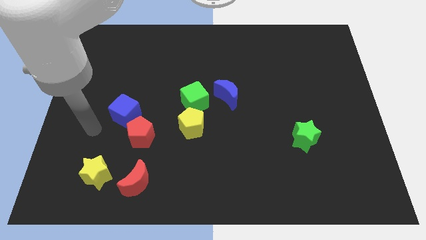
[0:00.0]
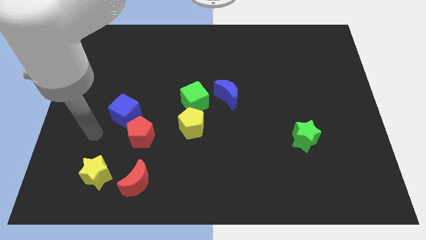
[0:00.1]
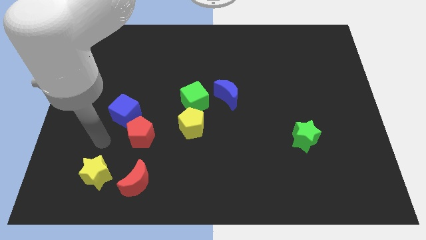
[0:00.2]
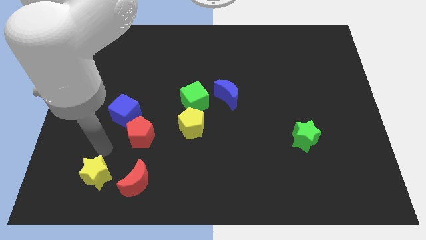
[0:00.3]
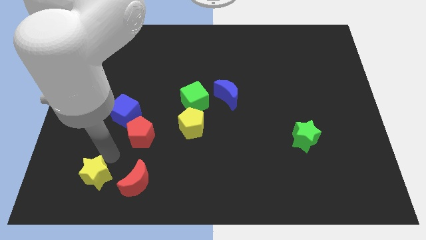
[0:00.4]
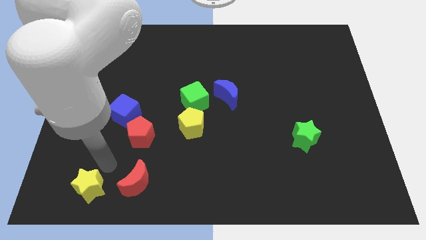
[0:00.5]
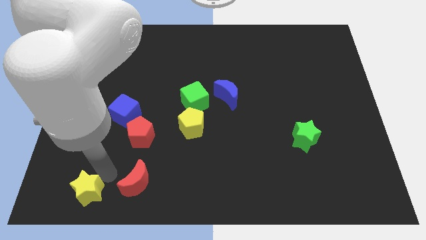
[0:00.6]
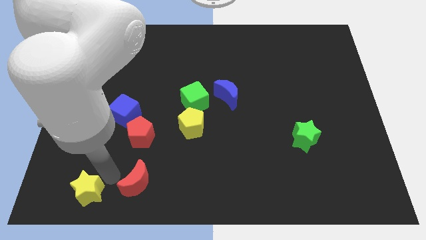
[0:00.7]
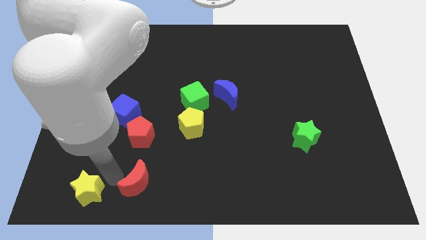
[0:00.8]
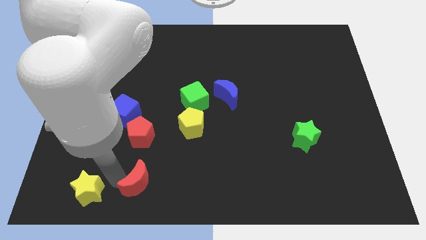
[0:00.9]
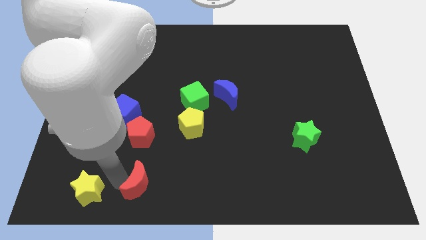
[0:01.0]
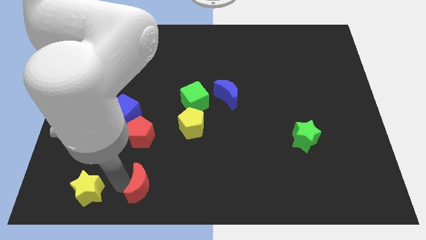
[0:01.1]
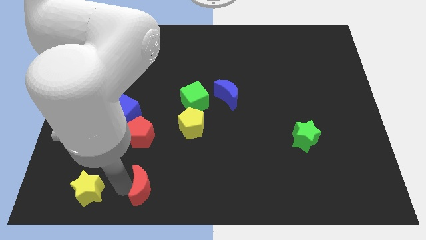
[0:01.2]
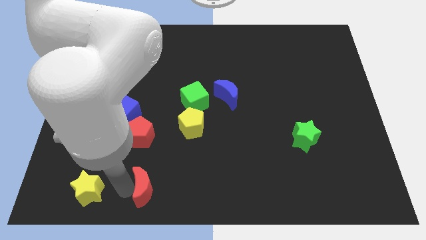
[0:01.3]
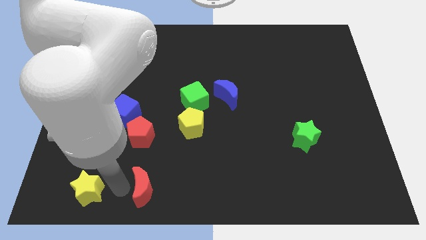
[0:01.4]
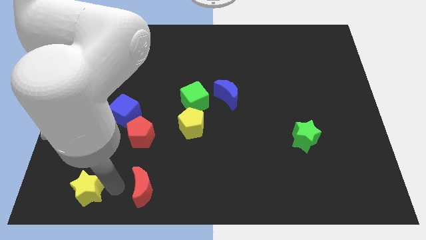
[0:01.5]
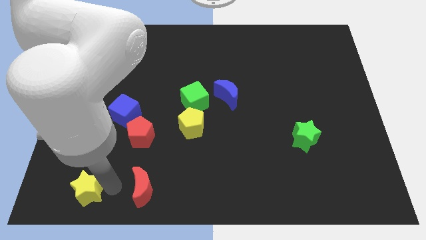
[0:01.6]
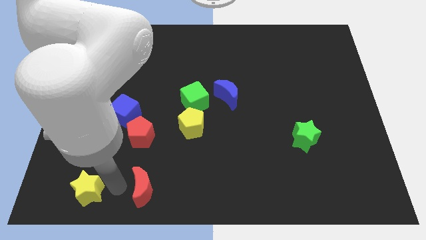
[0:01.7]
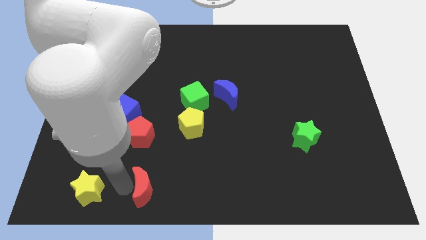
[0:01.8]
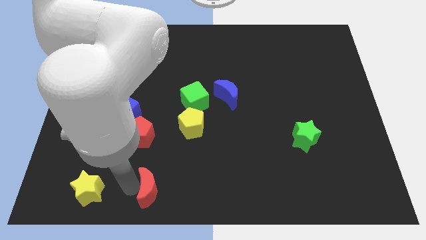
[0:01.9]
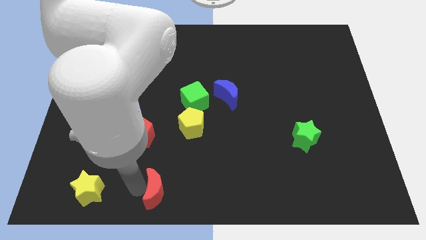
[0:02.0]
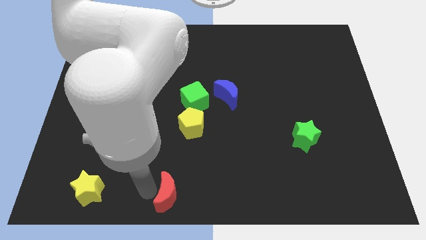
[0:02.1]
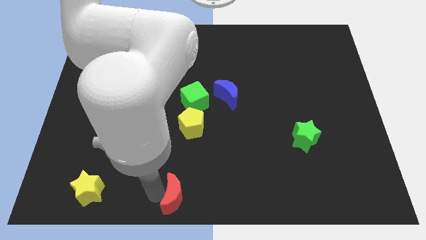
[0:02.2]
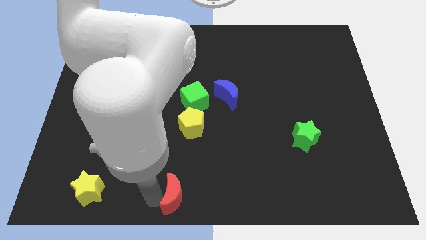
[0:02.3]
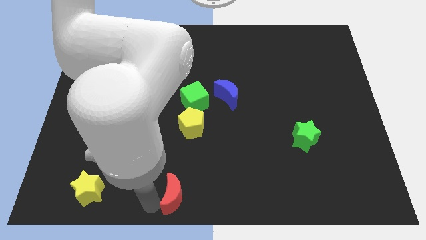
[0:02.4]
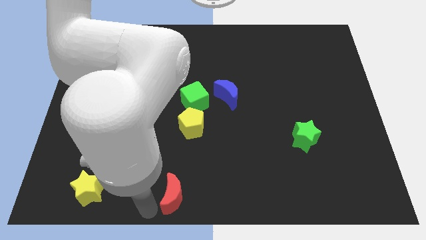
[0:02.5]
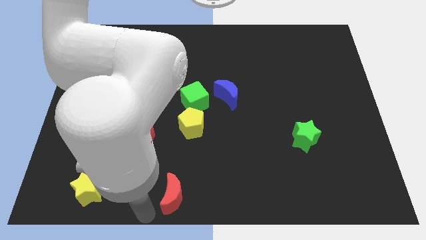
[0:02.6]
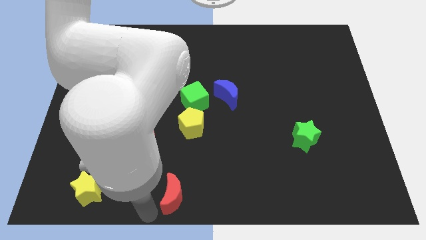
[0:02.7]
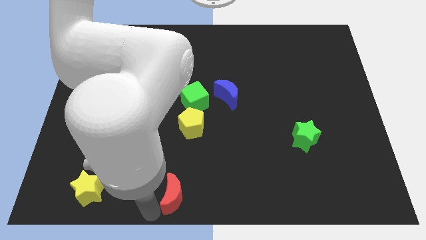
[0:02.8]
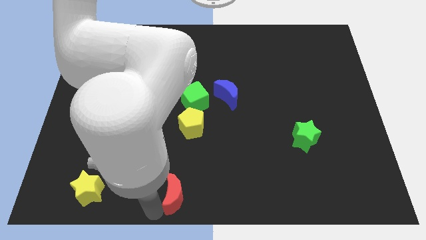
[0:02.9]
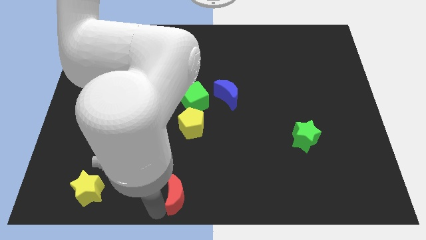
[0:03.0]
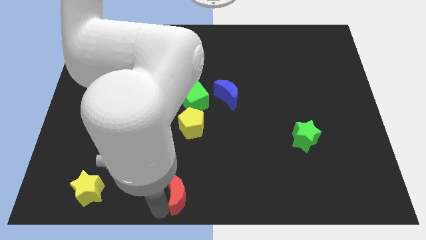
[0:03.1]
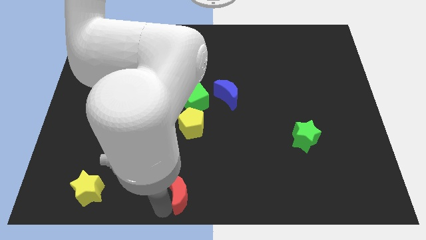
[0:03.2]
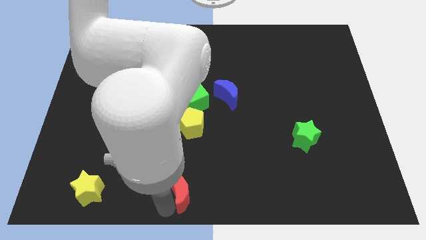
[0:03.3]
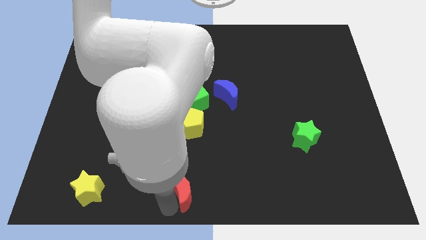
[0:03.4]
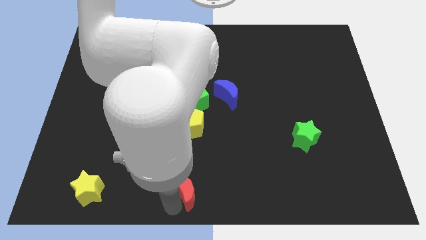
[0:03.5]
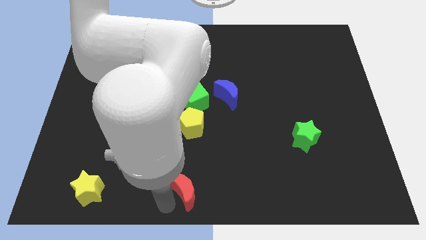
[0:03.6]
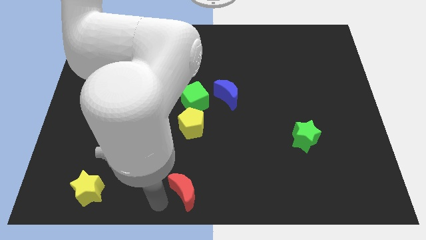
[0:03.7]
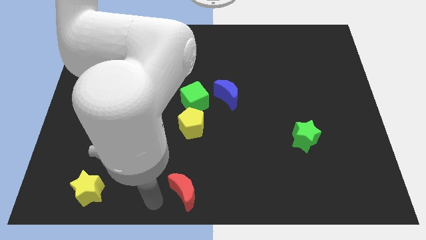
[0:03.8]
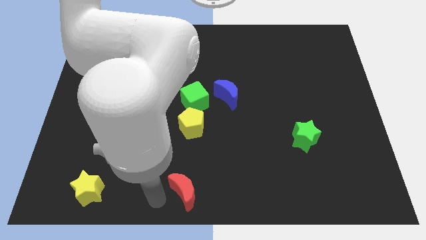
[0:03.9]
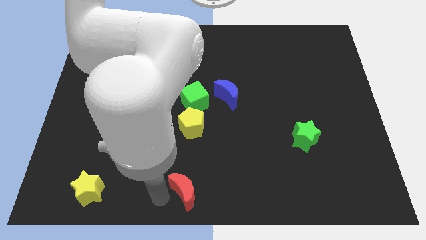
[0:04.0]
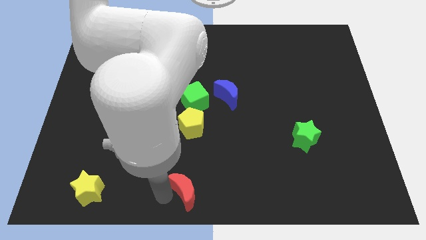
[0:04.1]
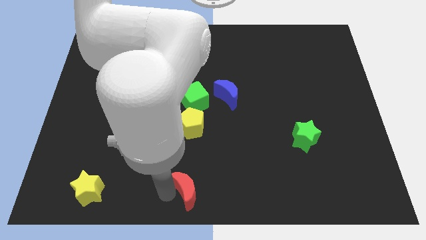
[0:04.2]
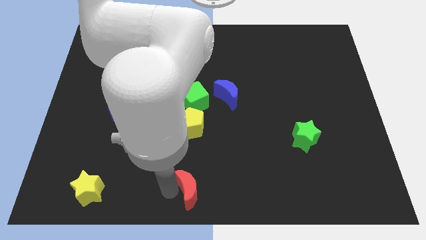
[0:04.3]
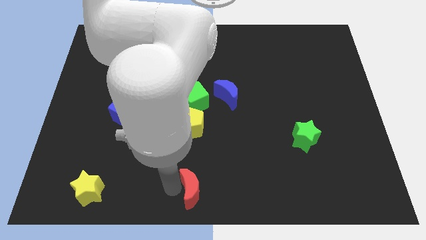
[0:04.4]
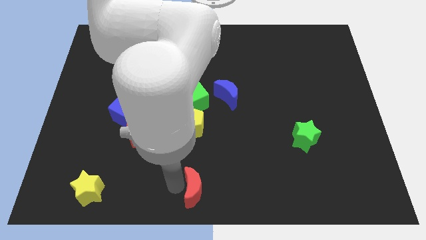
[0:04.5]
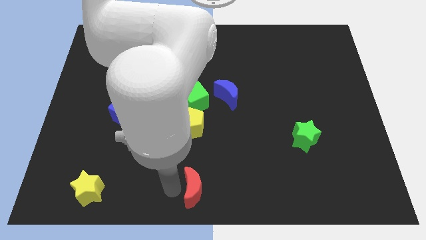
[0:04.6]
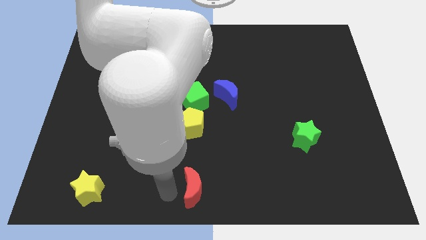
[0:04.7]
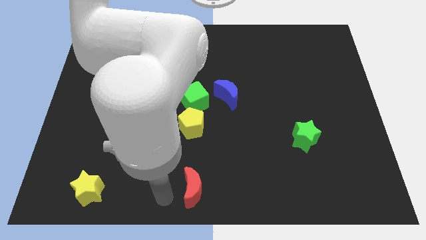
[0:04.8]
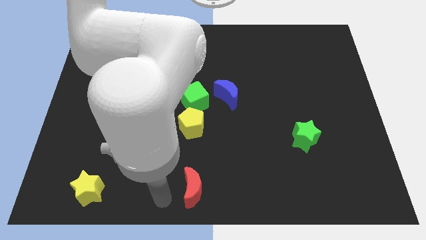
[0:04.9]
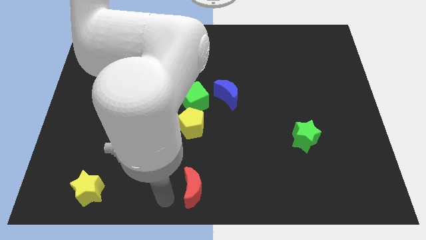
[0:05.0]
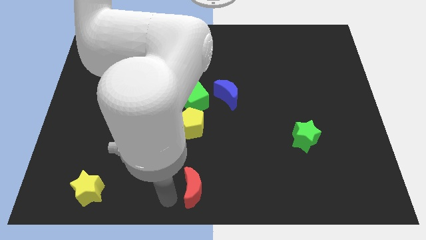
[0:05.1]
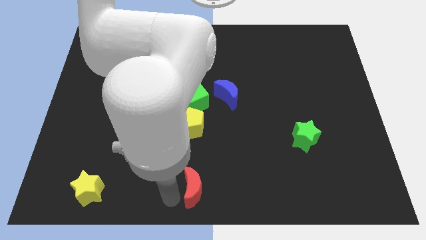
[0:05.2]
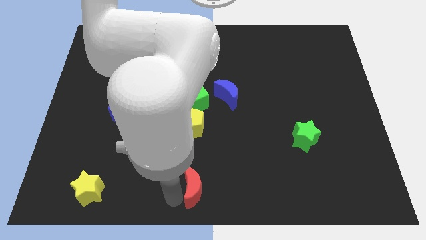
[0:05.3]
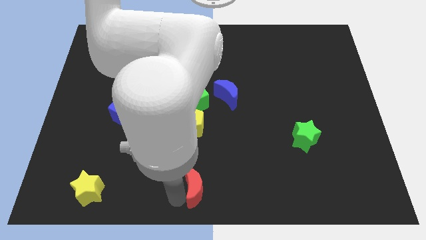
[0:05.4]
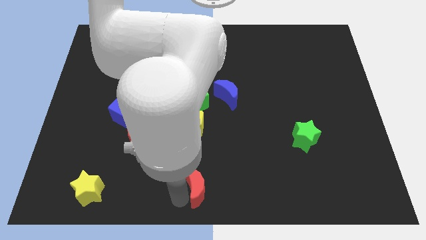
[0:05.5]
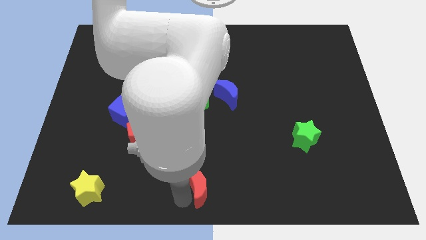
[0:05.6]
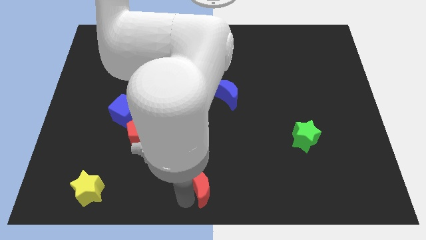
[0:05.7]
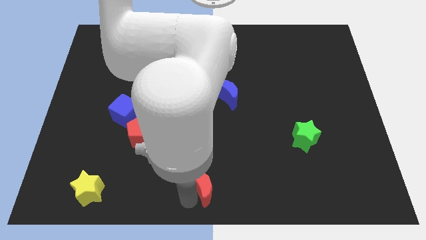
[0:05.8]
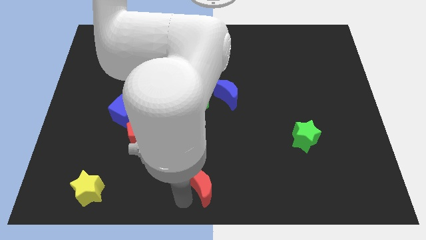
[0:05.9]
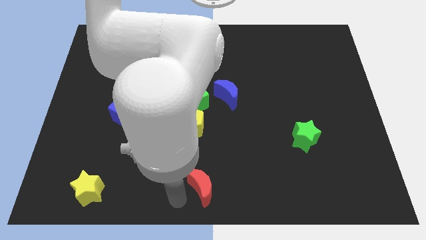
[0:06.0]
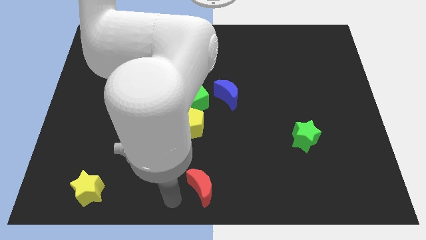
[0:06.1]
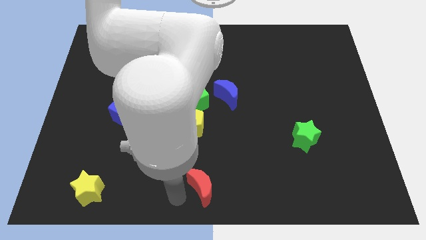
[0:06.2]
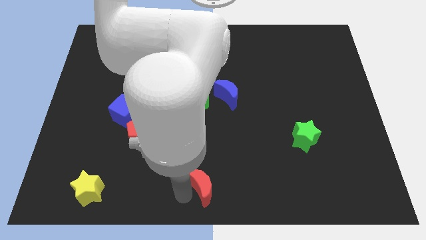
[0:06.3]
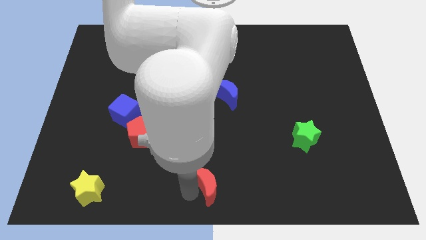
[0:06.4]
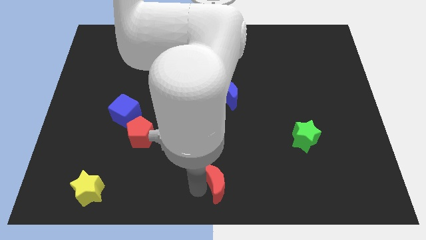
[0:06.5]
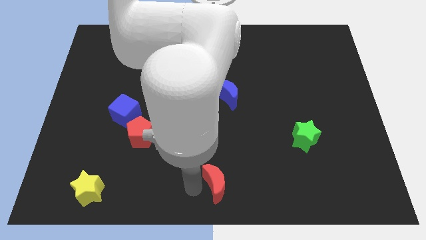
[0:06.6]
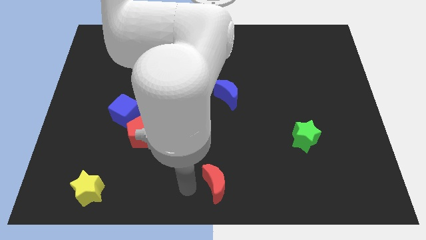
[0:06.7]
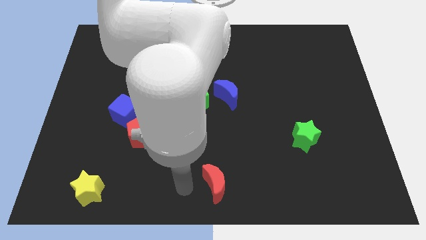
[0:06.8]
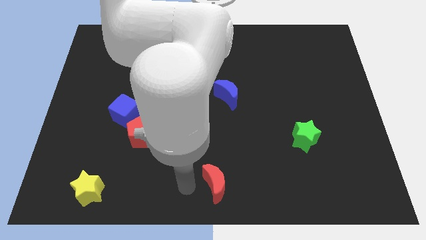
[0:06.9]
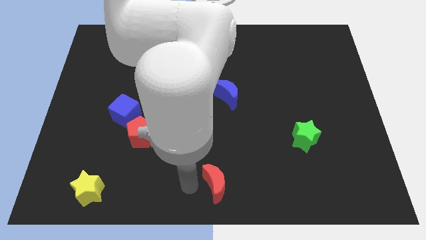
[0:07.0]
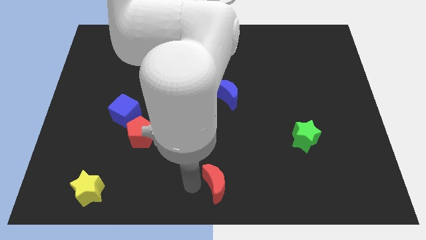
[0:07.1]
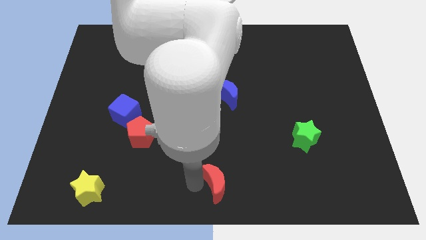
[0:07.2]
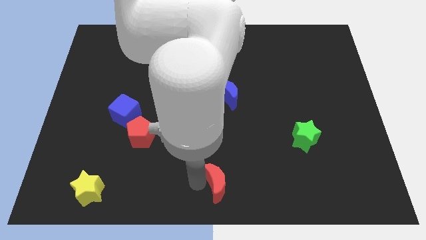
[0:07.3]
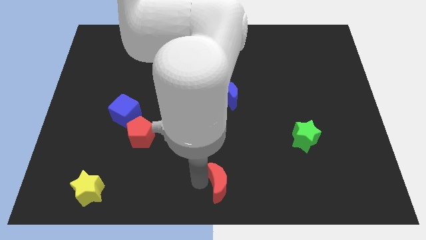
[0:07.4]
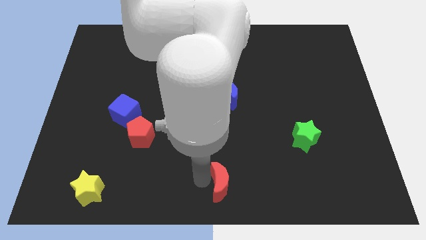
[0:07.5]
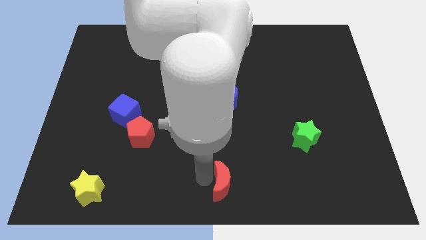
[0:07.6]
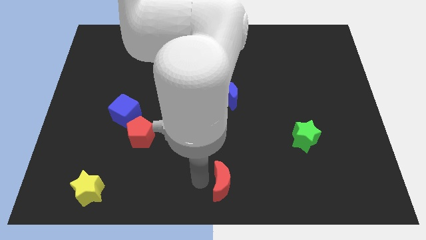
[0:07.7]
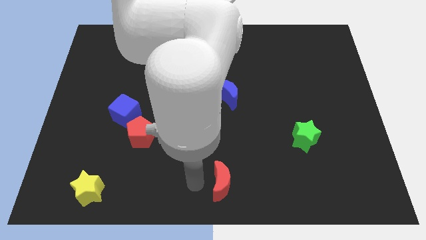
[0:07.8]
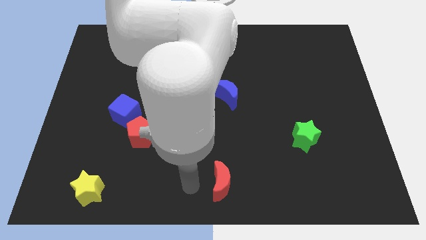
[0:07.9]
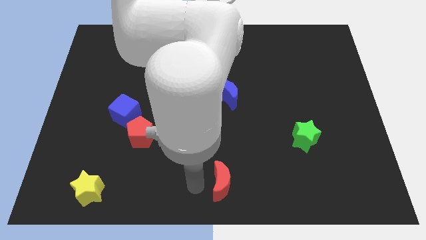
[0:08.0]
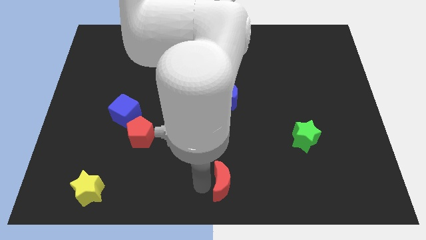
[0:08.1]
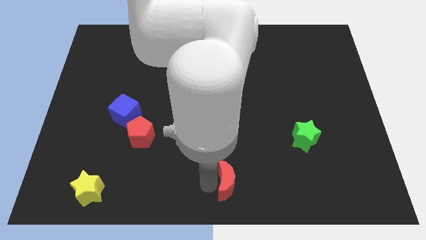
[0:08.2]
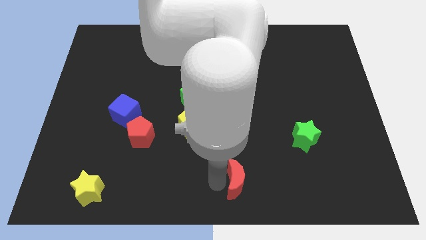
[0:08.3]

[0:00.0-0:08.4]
push the red moon to the right
